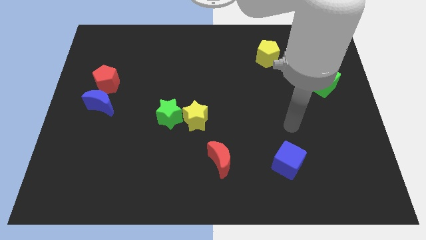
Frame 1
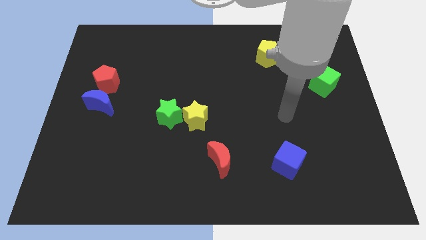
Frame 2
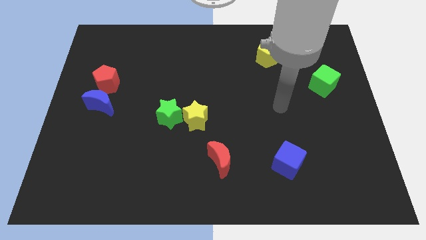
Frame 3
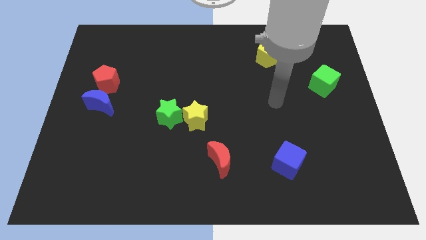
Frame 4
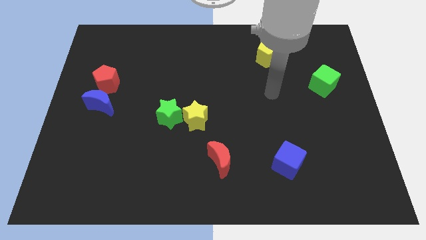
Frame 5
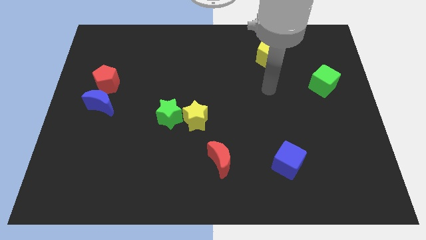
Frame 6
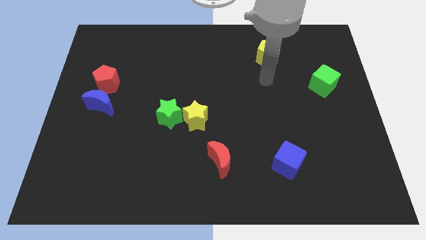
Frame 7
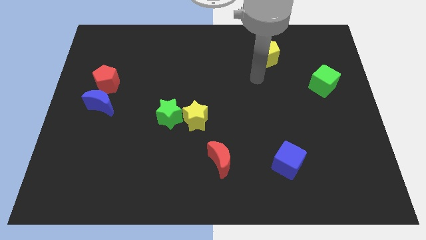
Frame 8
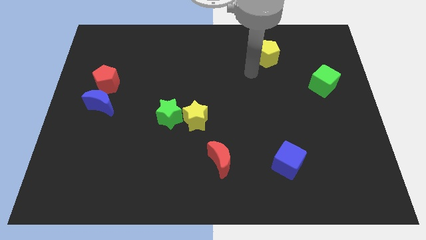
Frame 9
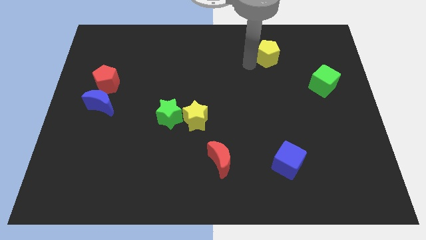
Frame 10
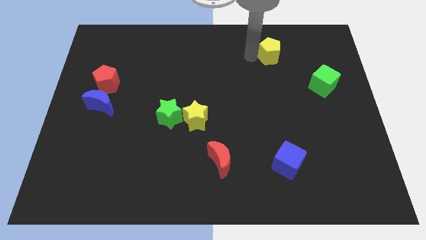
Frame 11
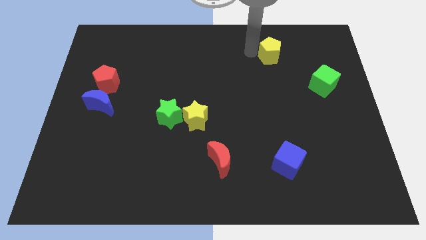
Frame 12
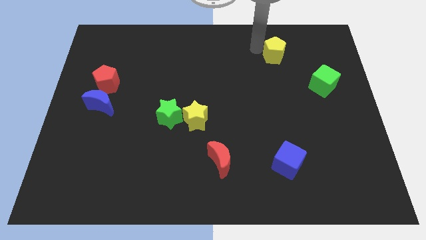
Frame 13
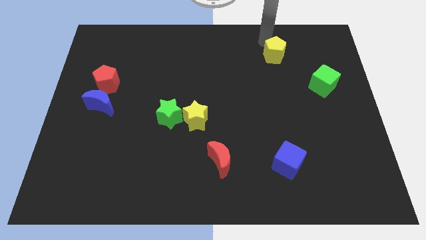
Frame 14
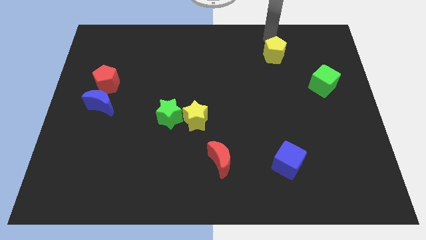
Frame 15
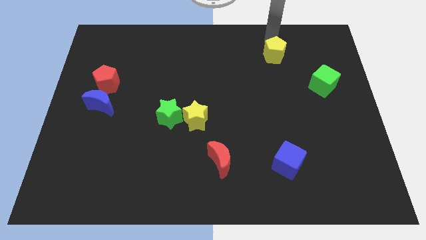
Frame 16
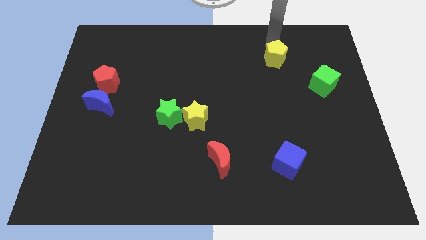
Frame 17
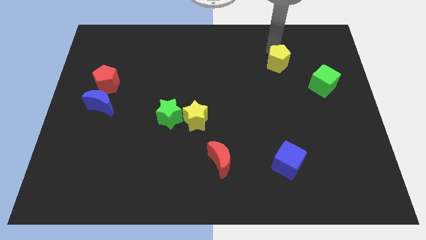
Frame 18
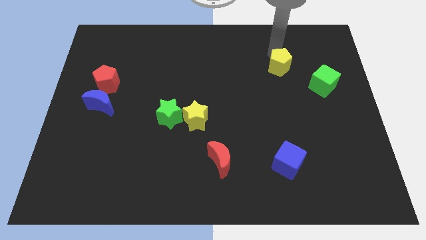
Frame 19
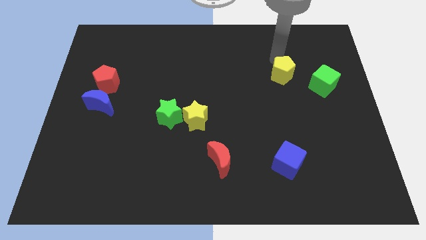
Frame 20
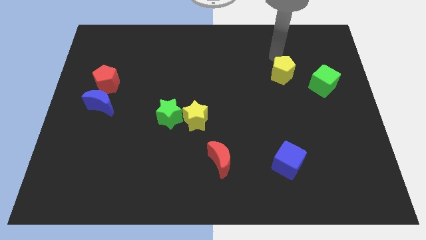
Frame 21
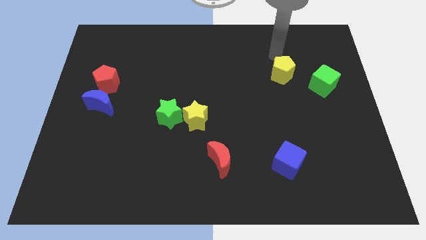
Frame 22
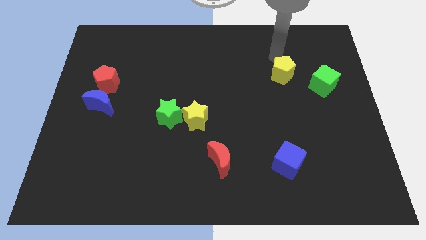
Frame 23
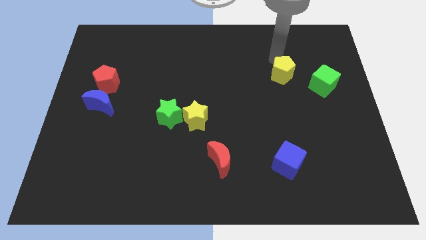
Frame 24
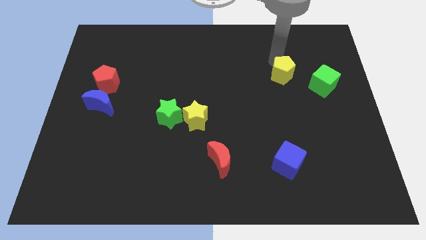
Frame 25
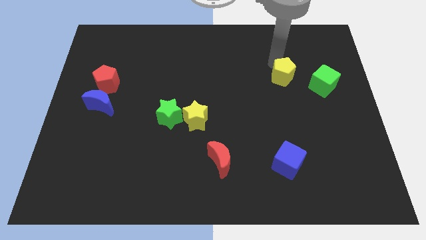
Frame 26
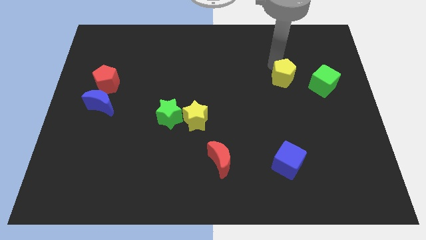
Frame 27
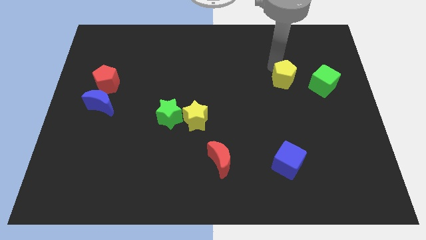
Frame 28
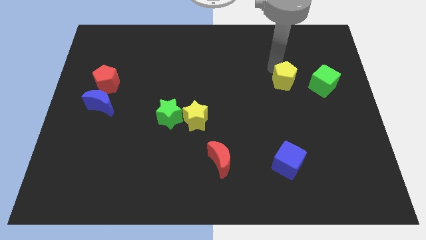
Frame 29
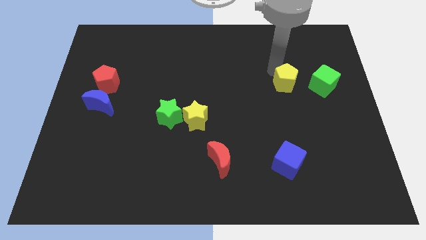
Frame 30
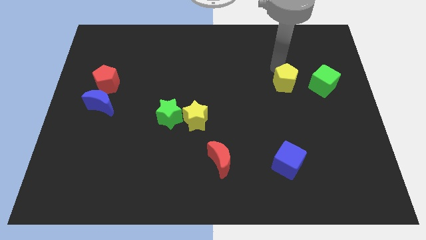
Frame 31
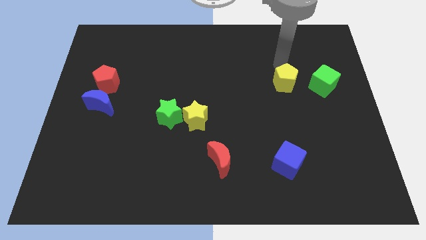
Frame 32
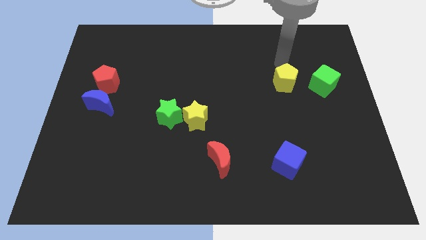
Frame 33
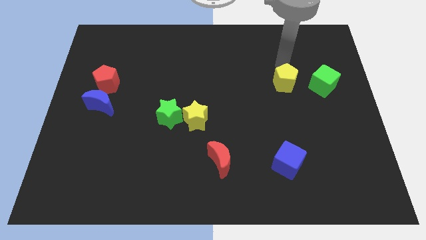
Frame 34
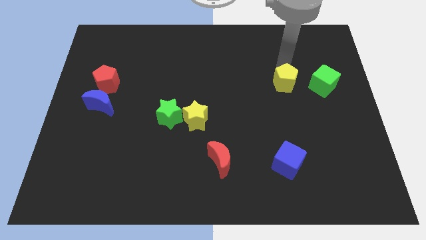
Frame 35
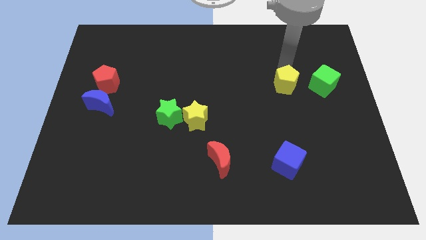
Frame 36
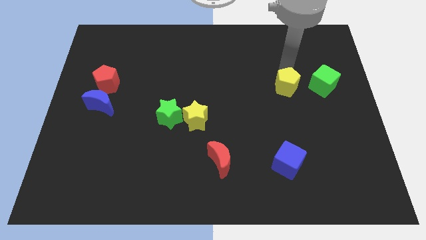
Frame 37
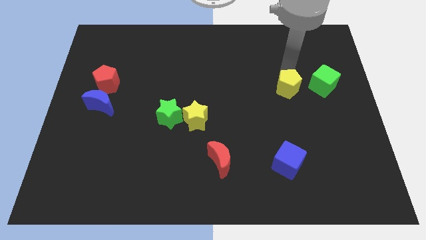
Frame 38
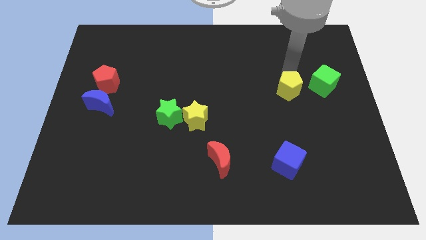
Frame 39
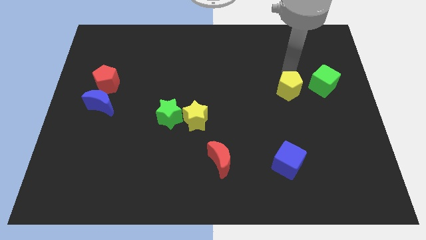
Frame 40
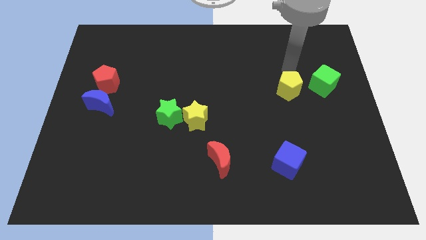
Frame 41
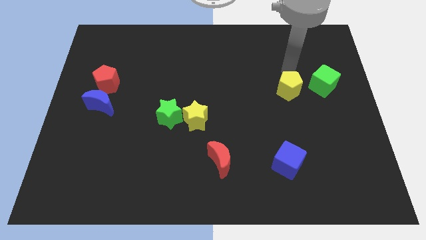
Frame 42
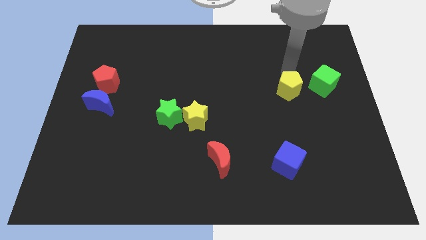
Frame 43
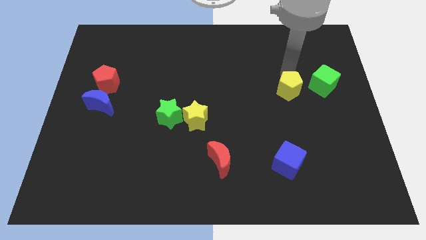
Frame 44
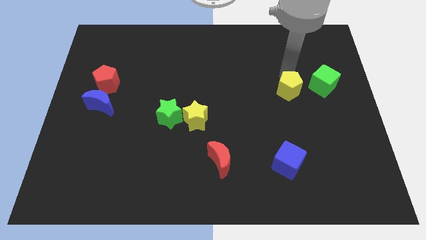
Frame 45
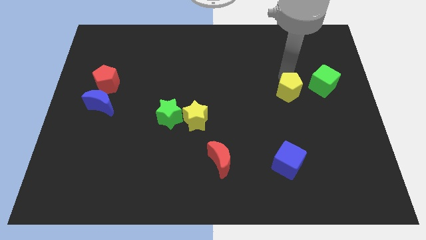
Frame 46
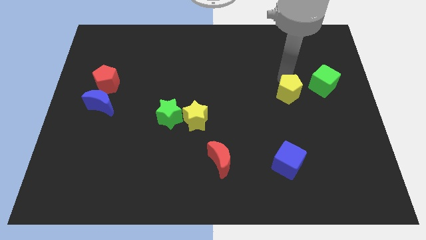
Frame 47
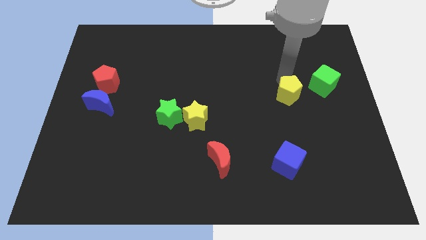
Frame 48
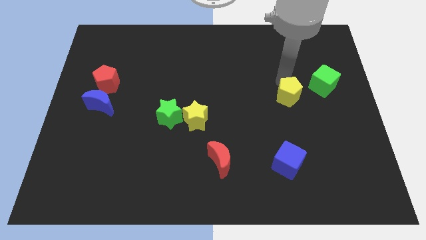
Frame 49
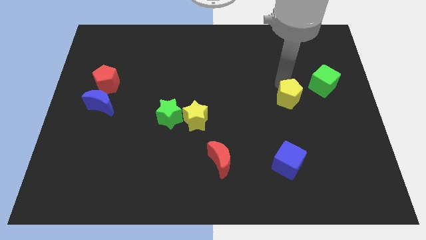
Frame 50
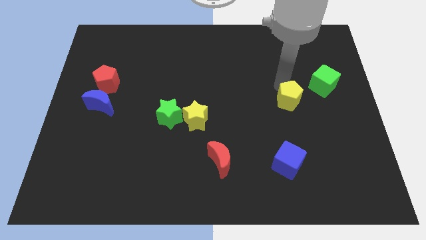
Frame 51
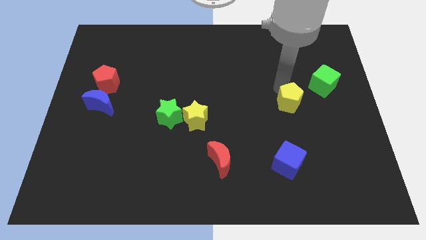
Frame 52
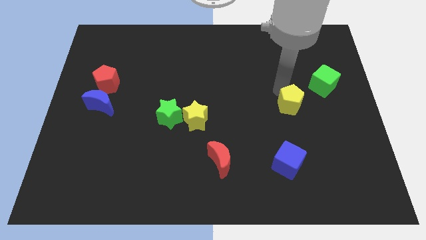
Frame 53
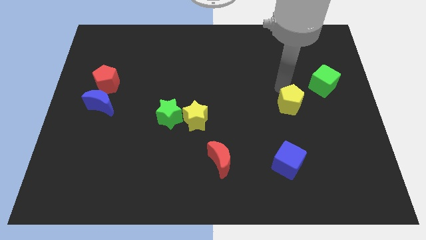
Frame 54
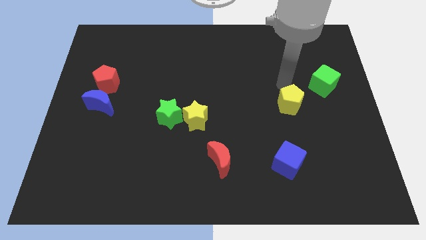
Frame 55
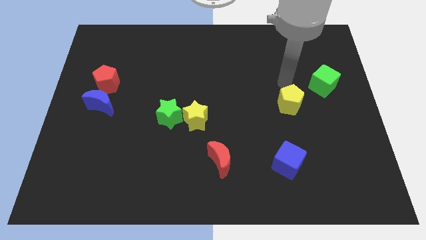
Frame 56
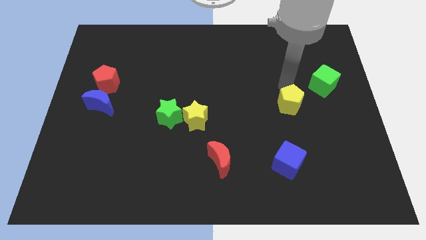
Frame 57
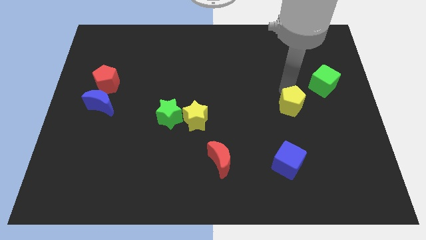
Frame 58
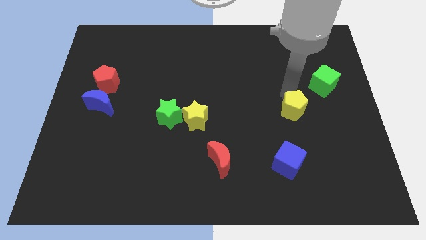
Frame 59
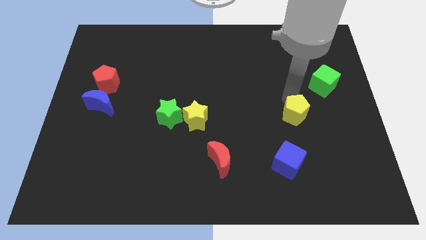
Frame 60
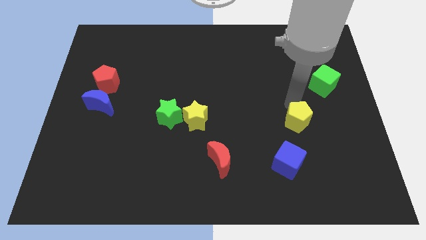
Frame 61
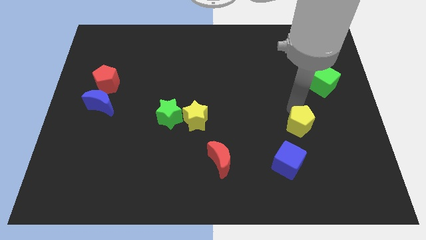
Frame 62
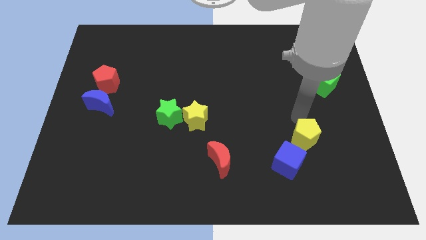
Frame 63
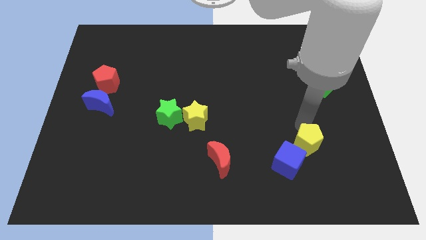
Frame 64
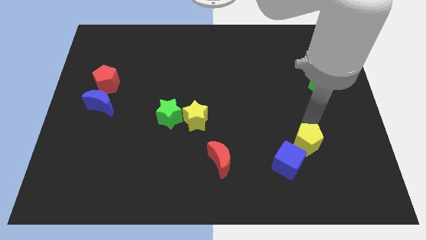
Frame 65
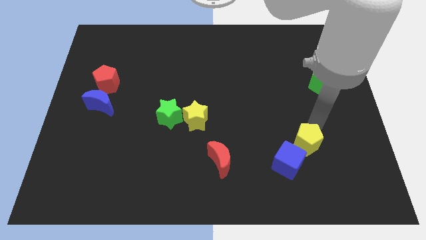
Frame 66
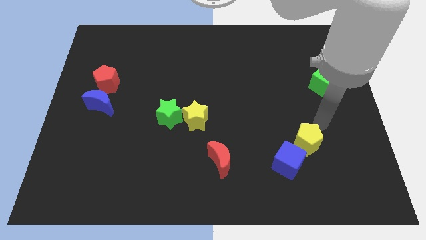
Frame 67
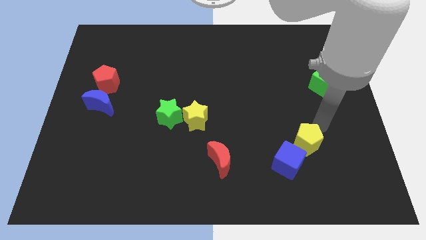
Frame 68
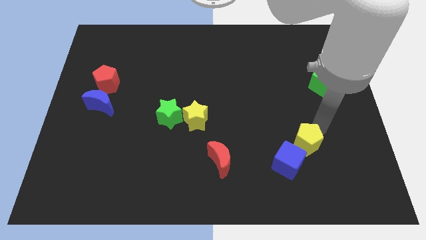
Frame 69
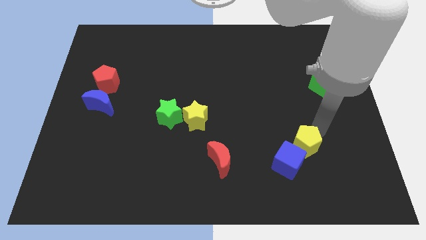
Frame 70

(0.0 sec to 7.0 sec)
put the yellow pentagon to the blue cube
